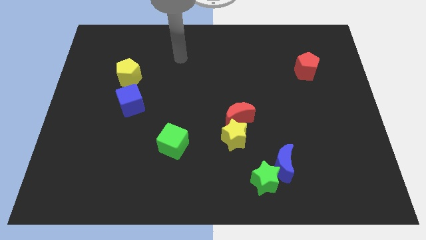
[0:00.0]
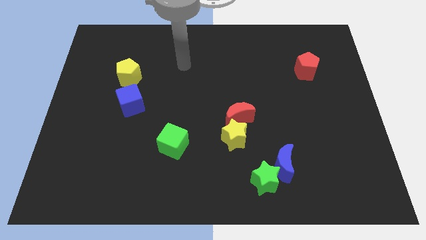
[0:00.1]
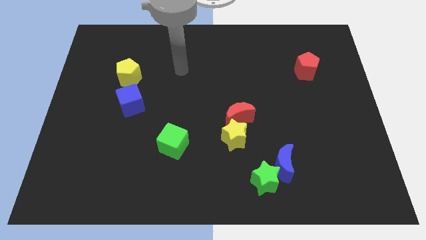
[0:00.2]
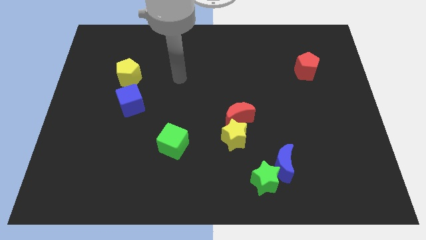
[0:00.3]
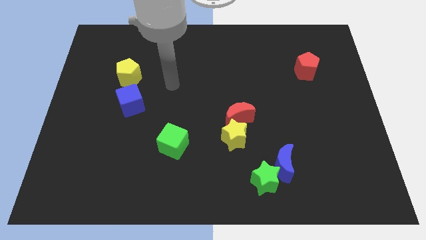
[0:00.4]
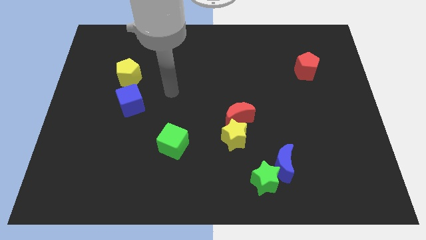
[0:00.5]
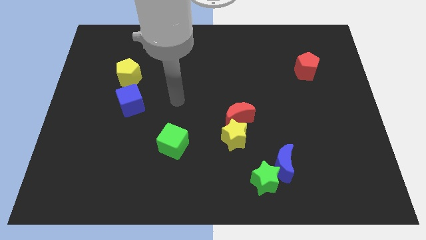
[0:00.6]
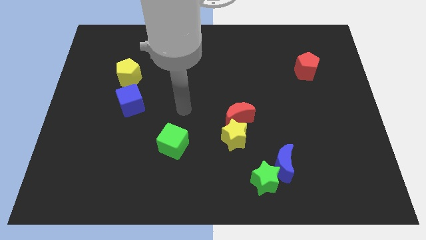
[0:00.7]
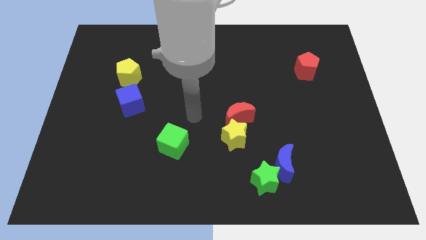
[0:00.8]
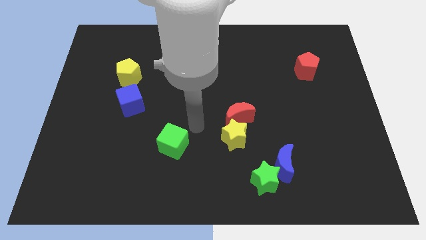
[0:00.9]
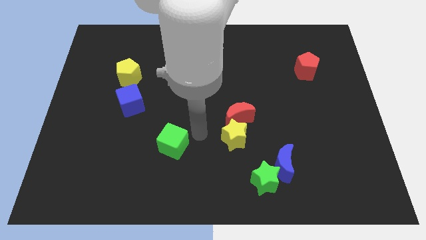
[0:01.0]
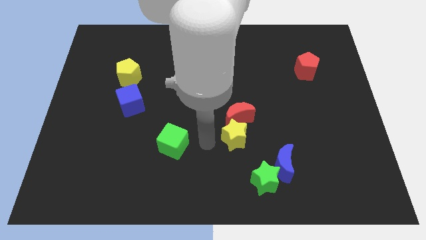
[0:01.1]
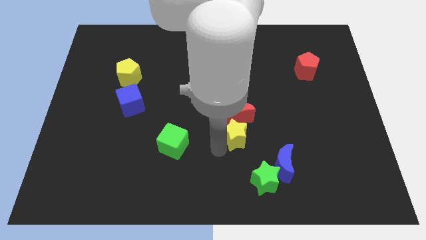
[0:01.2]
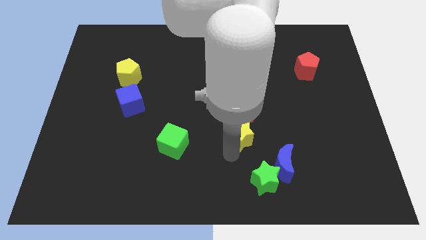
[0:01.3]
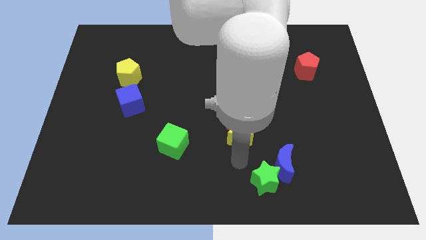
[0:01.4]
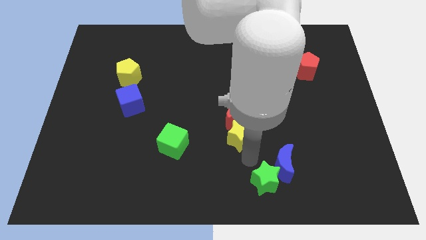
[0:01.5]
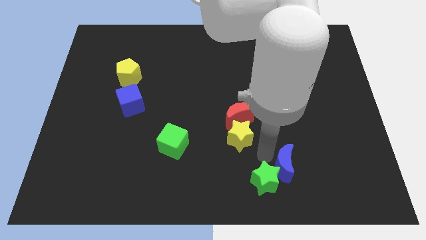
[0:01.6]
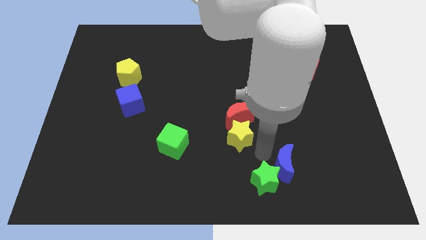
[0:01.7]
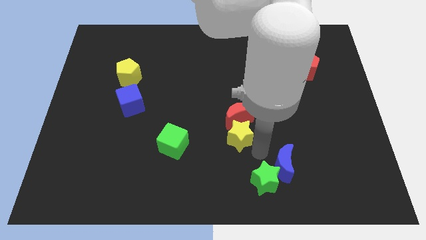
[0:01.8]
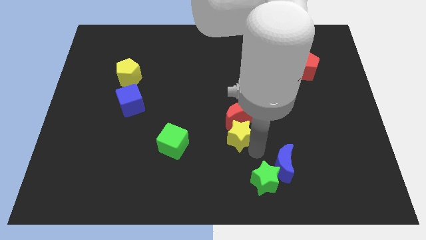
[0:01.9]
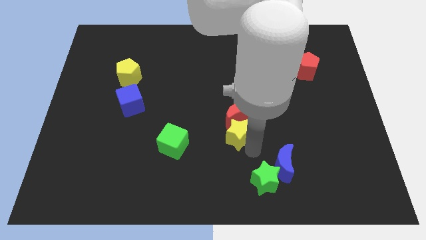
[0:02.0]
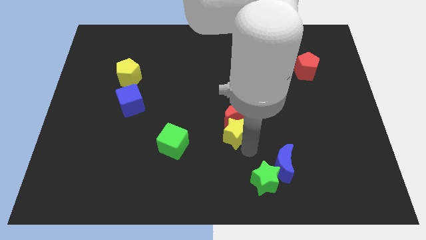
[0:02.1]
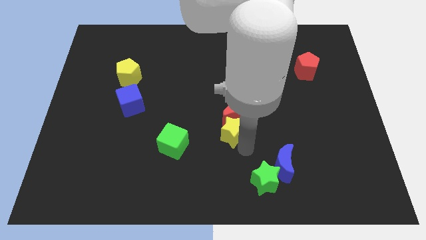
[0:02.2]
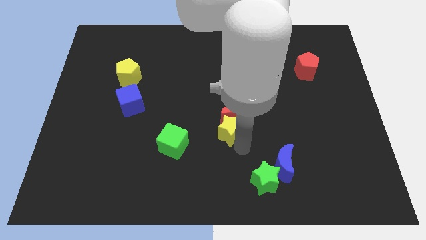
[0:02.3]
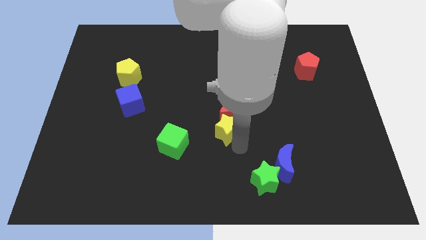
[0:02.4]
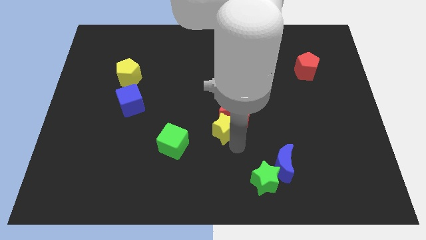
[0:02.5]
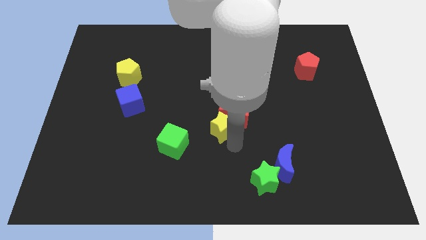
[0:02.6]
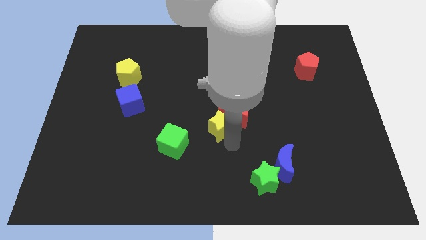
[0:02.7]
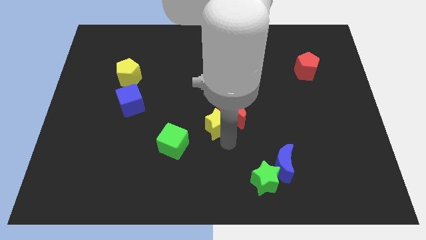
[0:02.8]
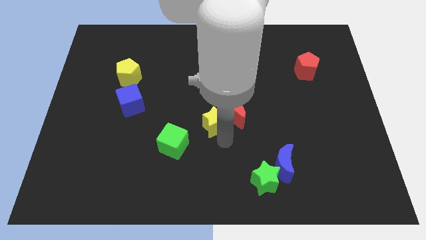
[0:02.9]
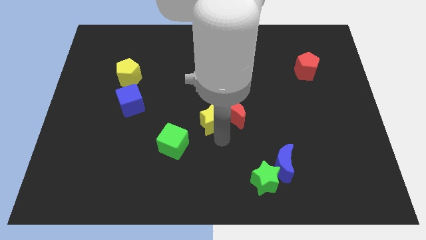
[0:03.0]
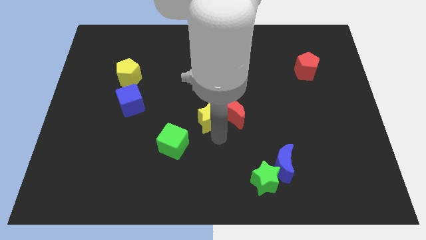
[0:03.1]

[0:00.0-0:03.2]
slide the yellow star a little bit upwards and to the left

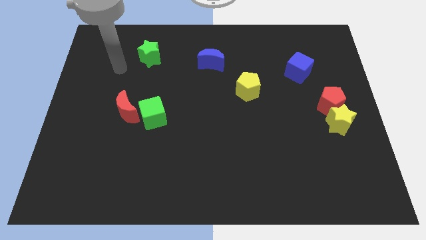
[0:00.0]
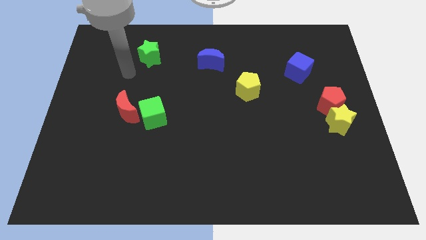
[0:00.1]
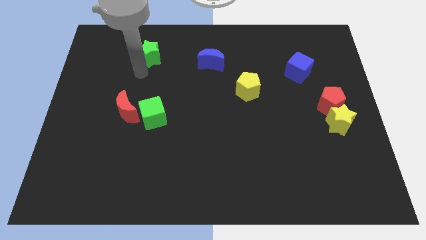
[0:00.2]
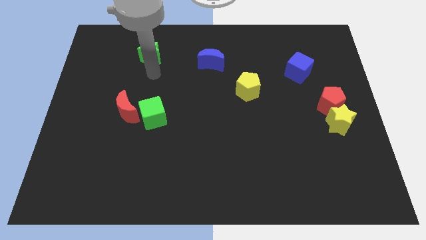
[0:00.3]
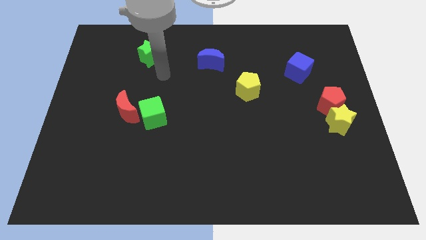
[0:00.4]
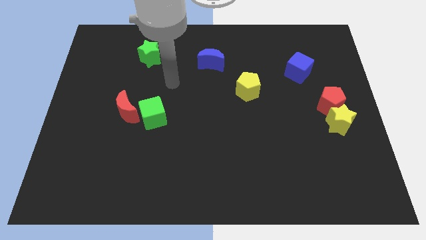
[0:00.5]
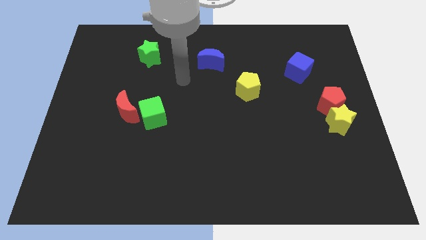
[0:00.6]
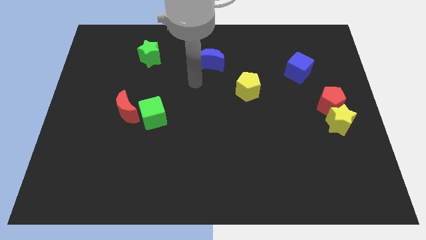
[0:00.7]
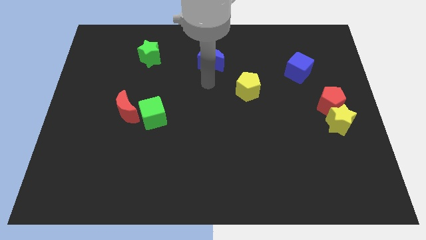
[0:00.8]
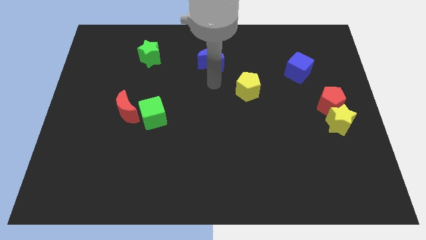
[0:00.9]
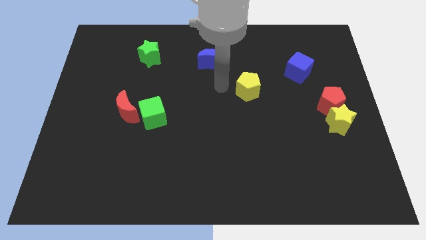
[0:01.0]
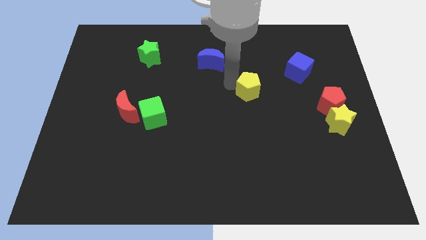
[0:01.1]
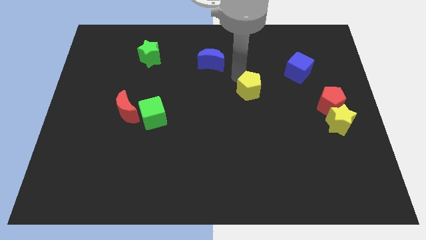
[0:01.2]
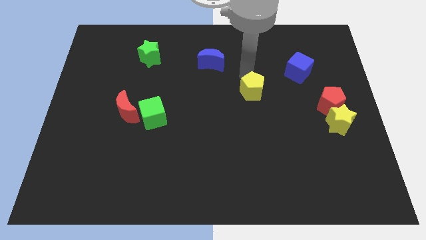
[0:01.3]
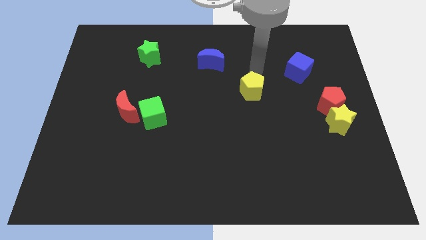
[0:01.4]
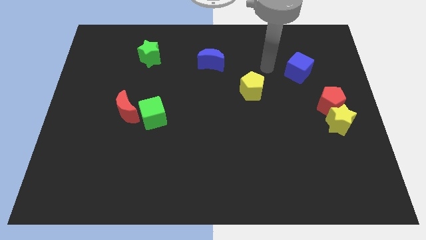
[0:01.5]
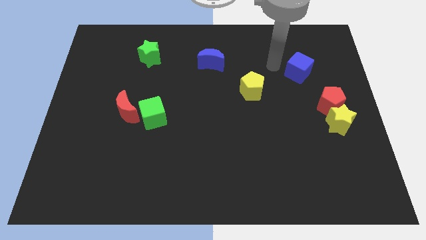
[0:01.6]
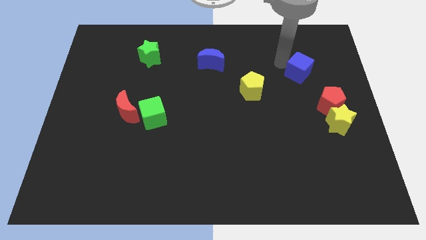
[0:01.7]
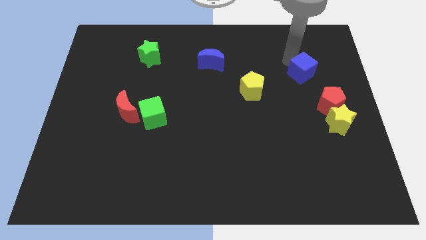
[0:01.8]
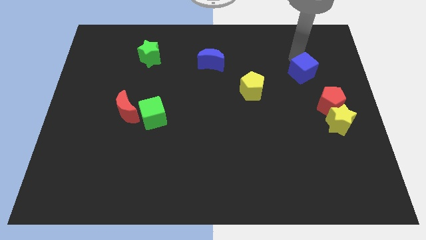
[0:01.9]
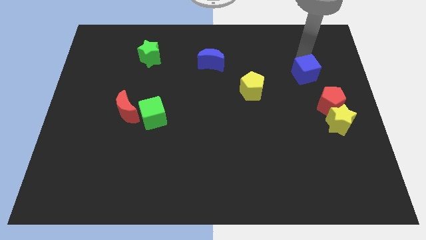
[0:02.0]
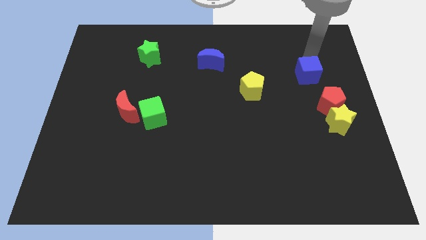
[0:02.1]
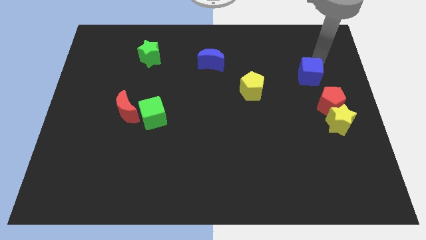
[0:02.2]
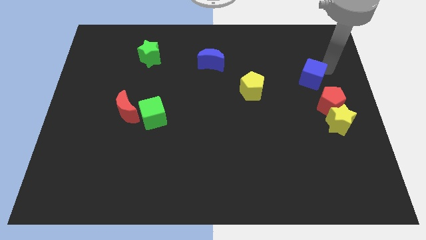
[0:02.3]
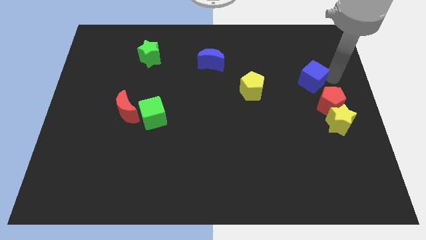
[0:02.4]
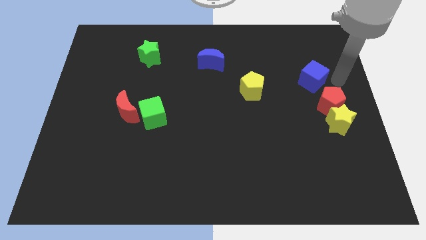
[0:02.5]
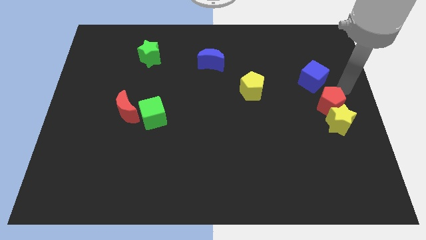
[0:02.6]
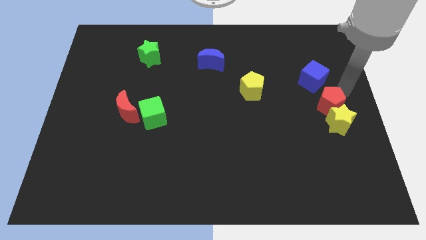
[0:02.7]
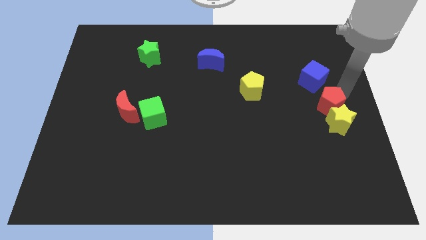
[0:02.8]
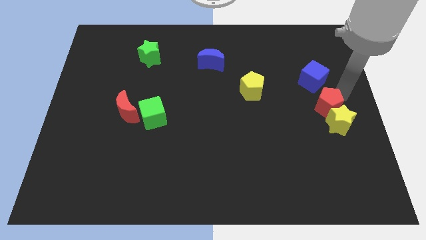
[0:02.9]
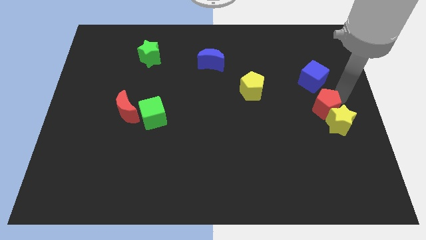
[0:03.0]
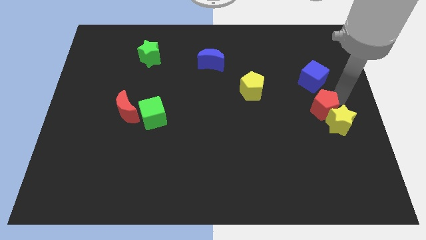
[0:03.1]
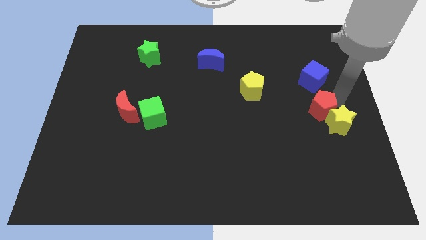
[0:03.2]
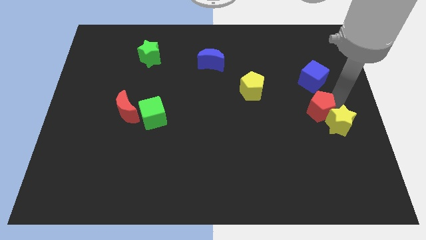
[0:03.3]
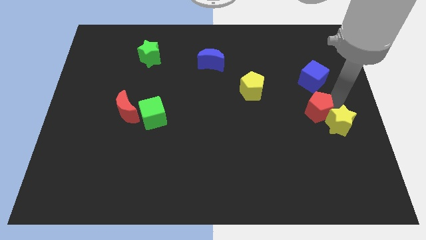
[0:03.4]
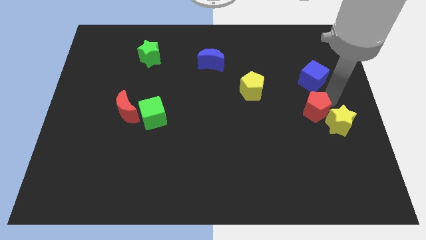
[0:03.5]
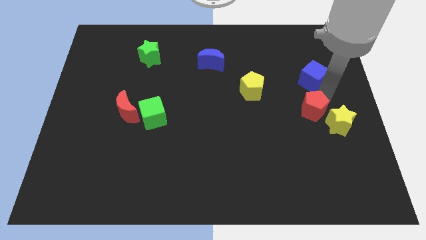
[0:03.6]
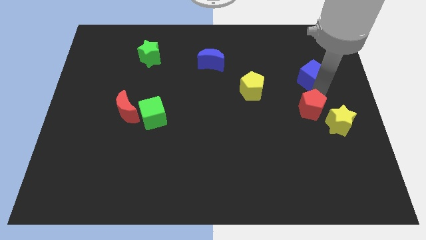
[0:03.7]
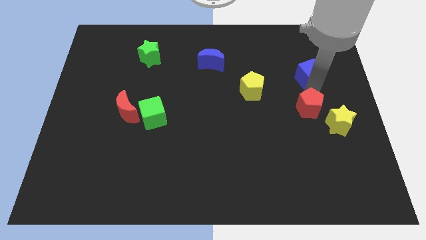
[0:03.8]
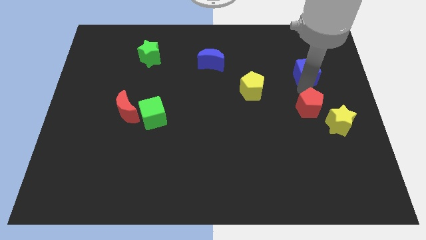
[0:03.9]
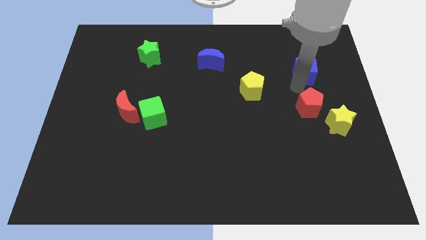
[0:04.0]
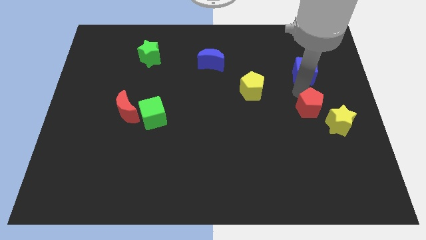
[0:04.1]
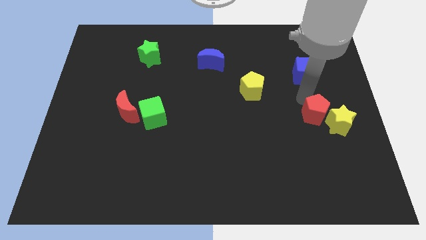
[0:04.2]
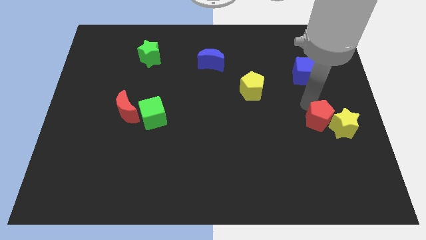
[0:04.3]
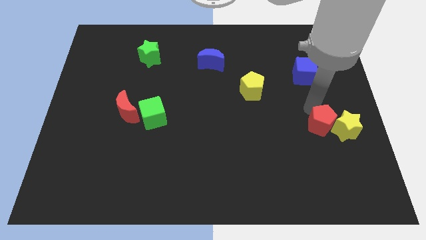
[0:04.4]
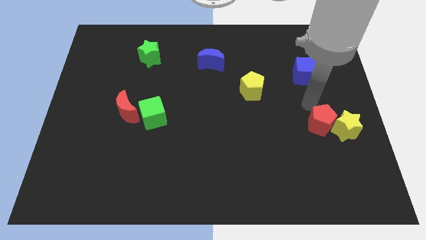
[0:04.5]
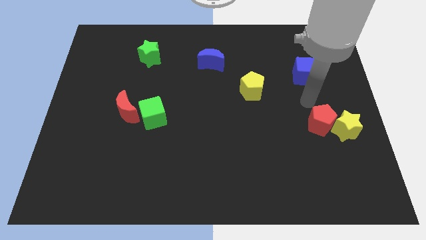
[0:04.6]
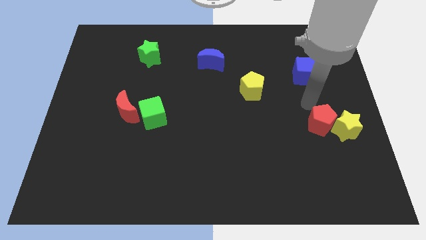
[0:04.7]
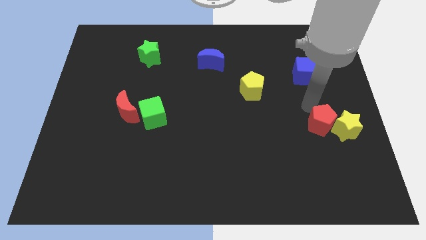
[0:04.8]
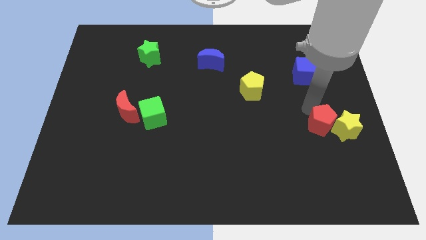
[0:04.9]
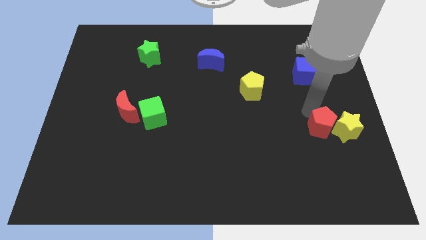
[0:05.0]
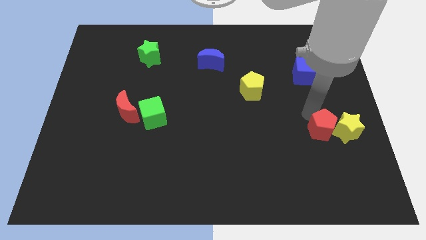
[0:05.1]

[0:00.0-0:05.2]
move the red pentagon somewhat downwards
